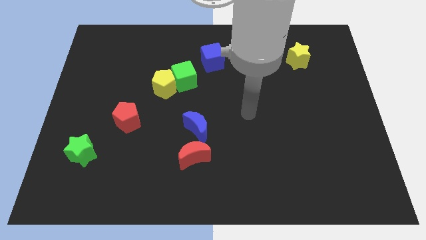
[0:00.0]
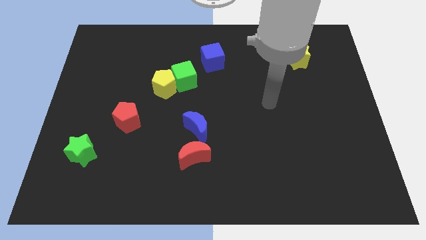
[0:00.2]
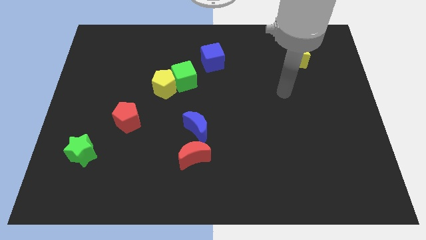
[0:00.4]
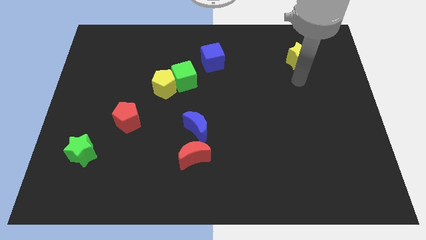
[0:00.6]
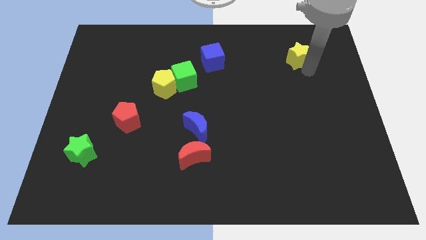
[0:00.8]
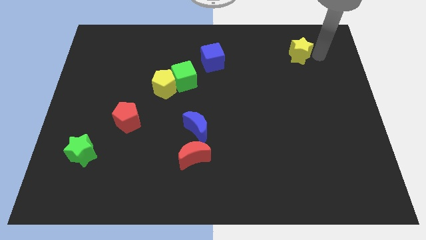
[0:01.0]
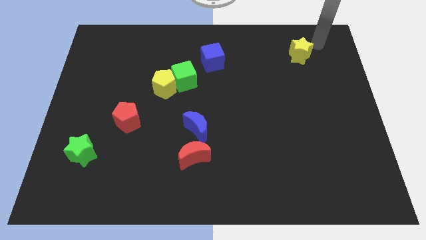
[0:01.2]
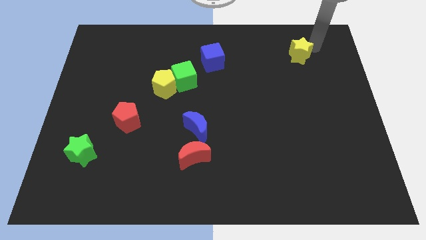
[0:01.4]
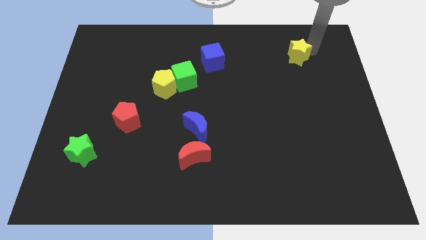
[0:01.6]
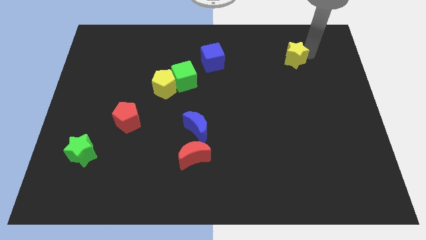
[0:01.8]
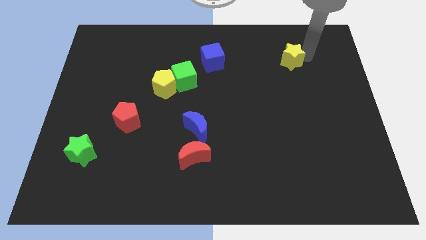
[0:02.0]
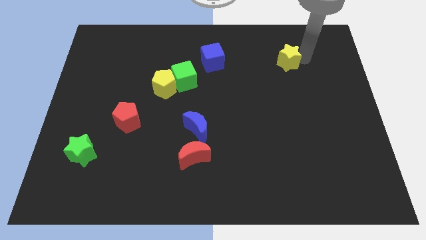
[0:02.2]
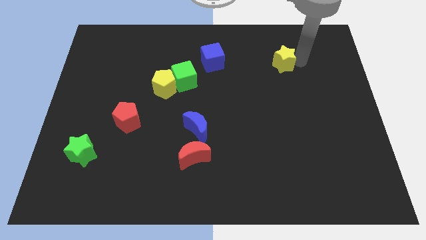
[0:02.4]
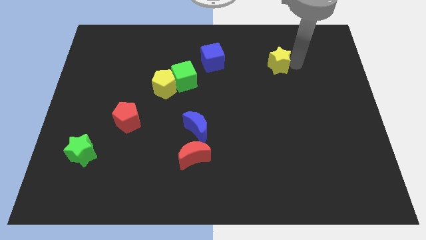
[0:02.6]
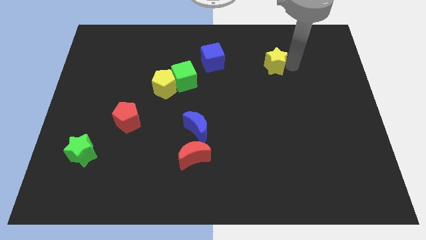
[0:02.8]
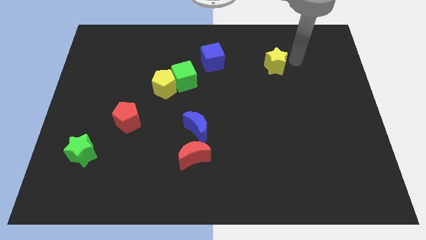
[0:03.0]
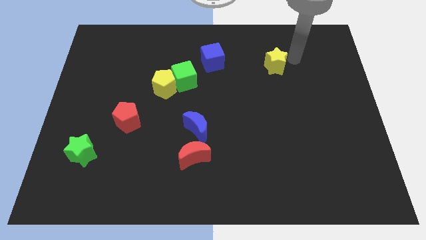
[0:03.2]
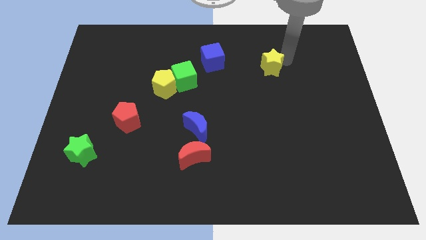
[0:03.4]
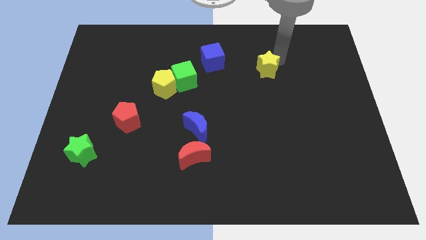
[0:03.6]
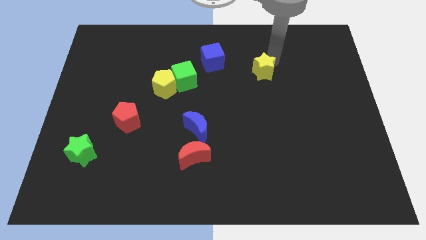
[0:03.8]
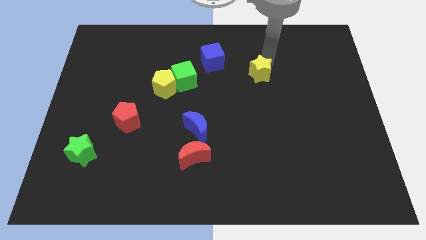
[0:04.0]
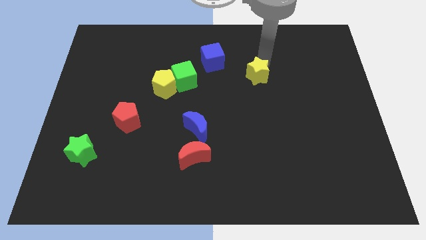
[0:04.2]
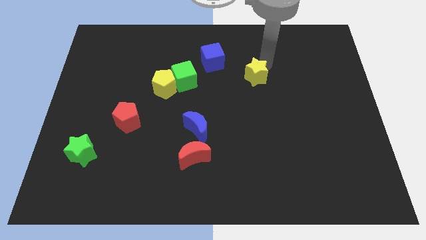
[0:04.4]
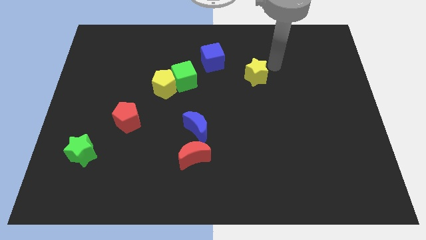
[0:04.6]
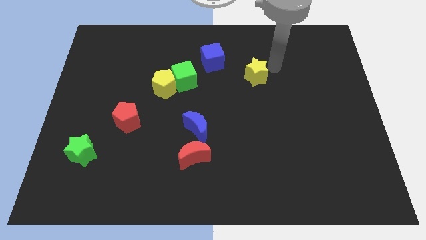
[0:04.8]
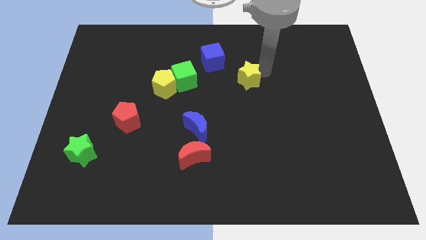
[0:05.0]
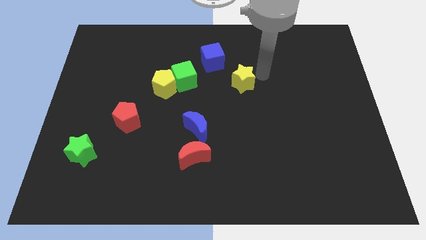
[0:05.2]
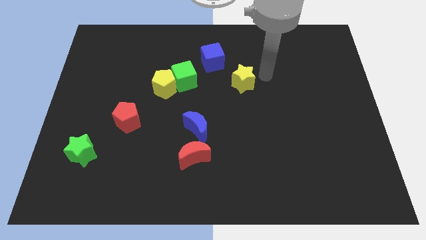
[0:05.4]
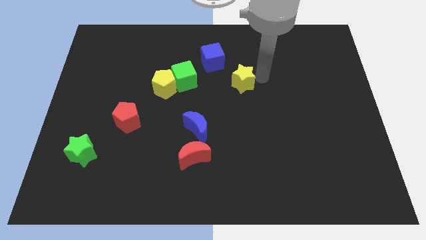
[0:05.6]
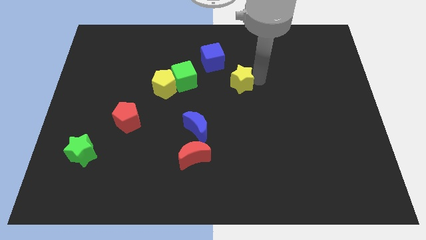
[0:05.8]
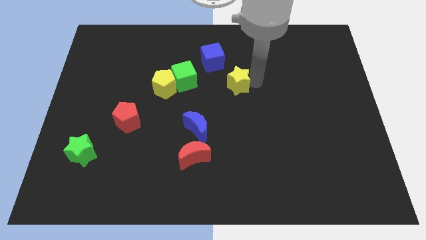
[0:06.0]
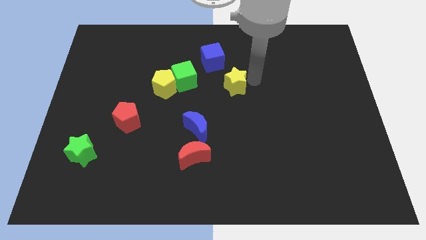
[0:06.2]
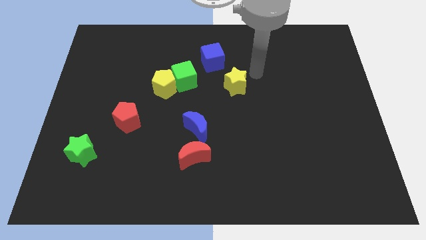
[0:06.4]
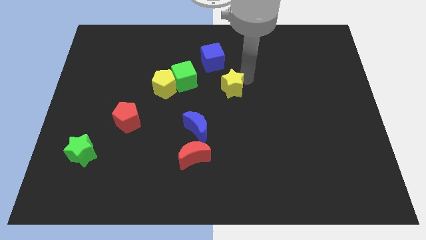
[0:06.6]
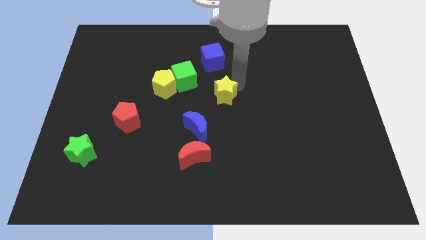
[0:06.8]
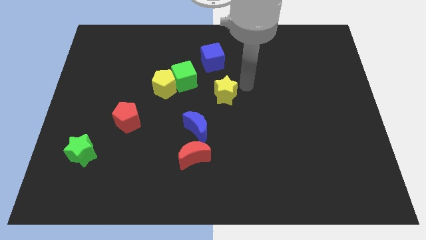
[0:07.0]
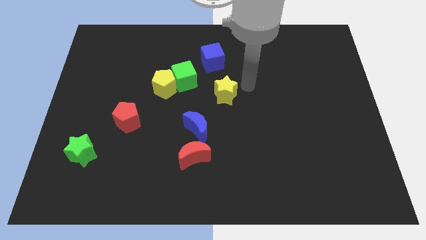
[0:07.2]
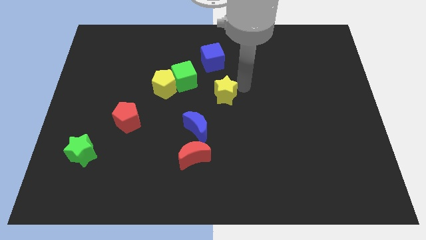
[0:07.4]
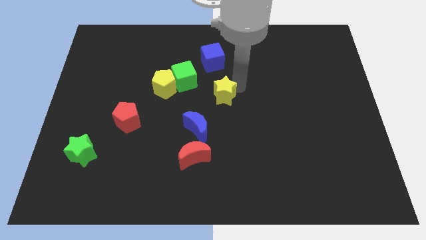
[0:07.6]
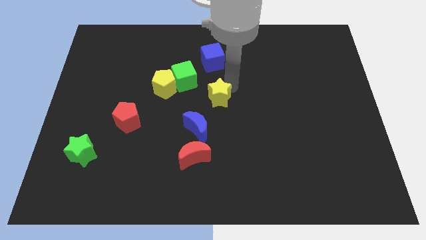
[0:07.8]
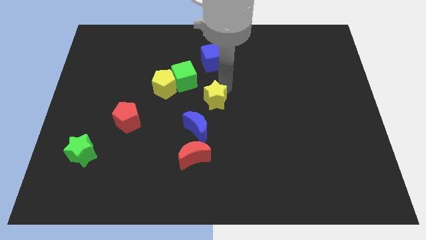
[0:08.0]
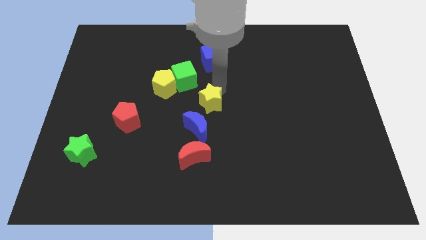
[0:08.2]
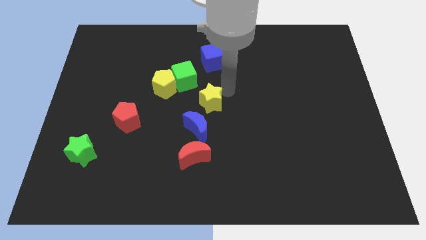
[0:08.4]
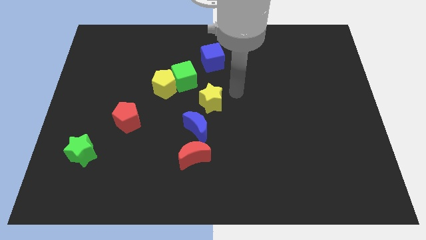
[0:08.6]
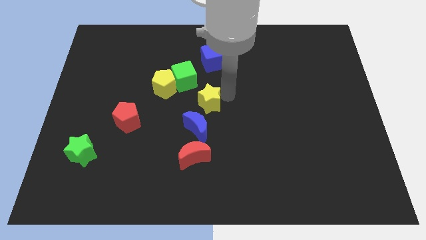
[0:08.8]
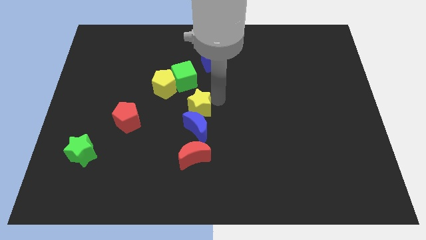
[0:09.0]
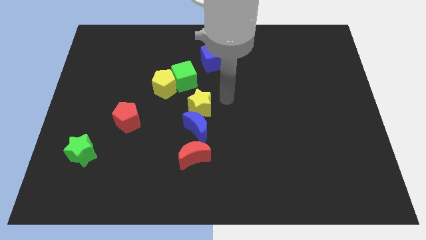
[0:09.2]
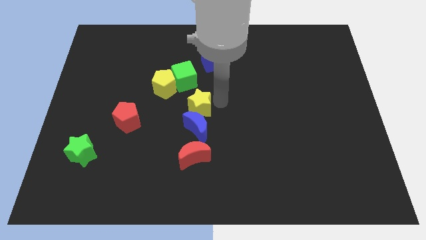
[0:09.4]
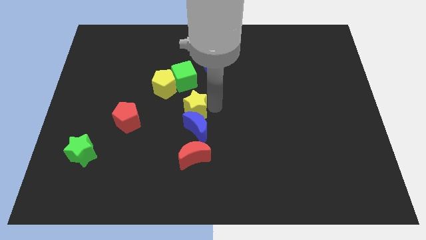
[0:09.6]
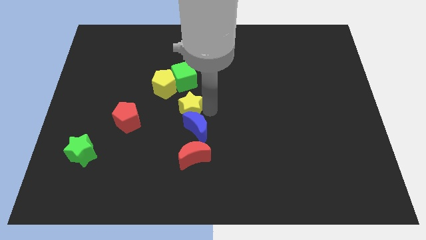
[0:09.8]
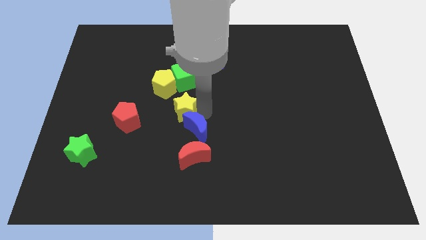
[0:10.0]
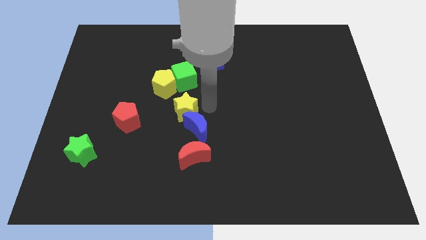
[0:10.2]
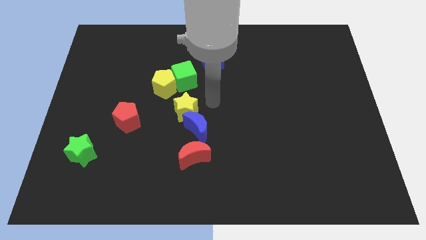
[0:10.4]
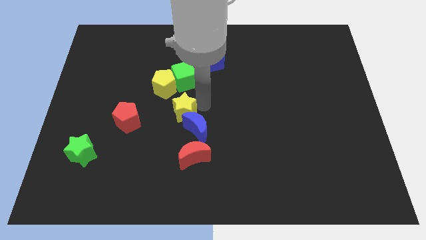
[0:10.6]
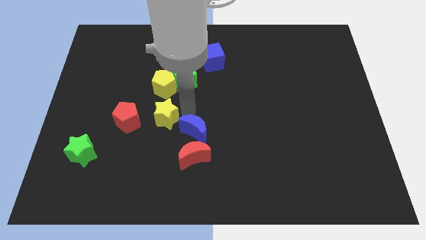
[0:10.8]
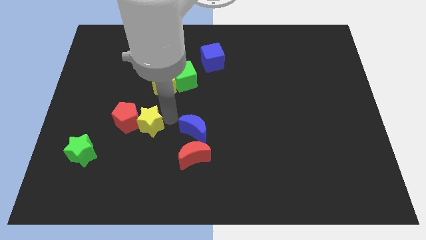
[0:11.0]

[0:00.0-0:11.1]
slide the yellow star to the red pentagon

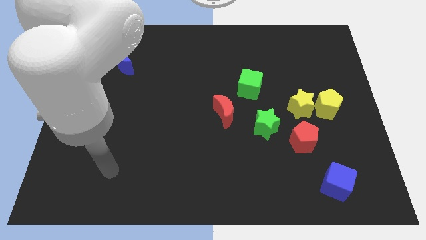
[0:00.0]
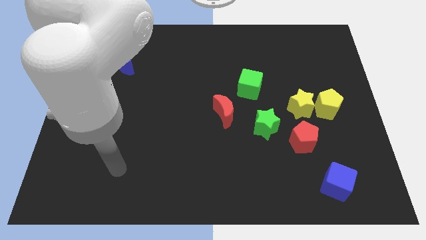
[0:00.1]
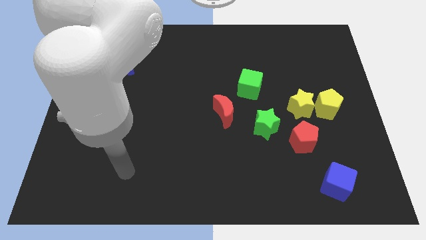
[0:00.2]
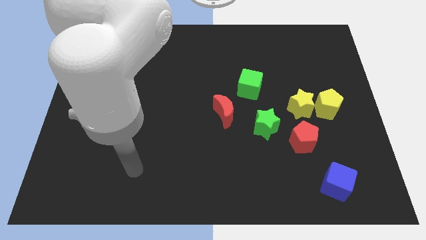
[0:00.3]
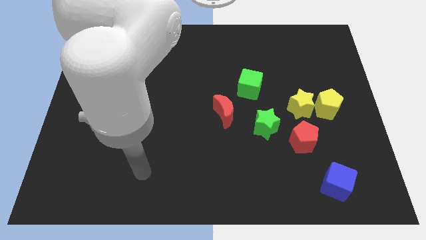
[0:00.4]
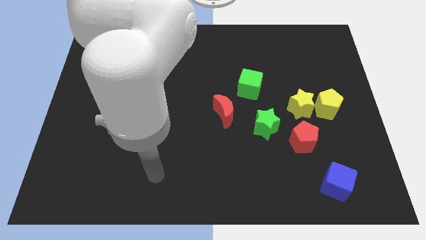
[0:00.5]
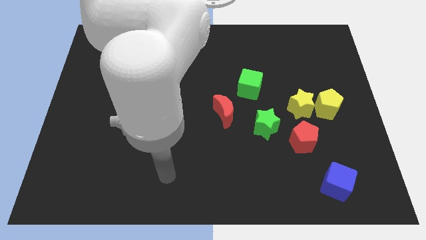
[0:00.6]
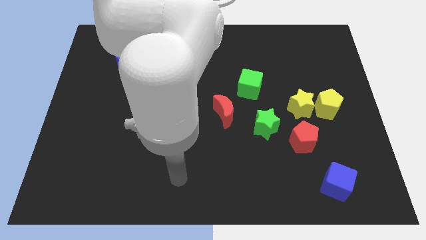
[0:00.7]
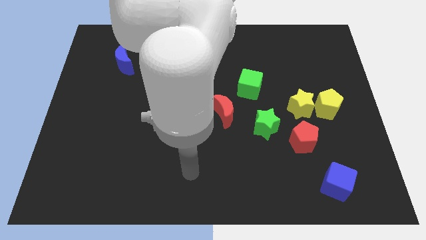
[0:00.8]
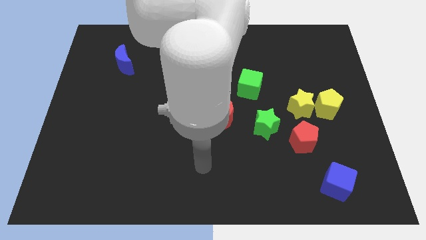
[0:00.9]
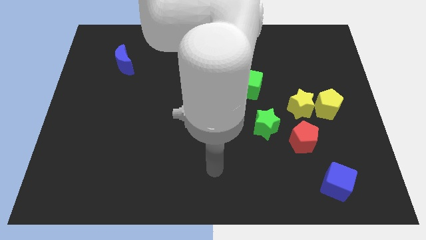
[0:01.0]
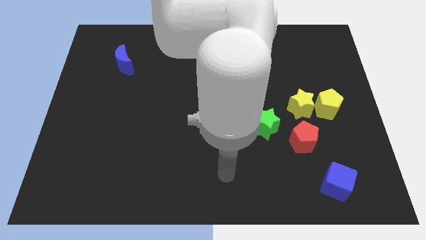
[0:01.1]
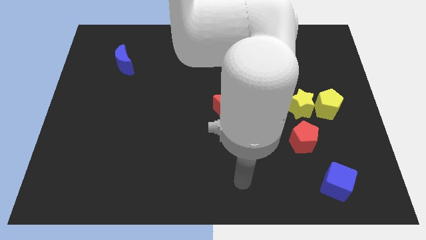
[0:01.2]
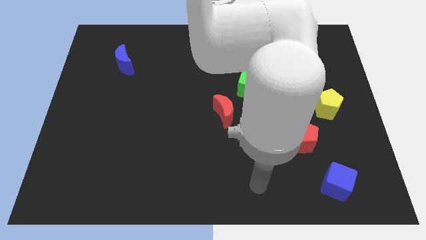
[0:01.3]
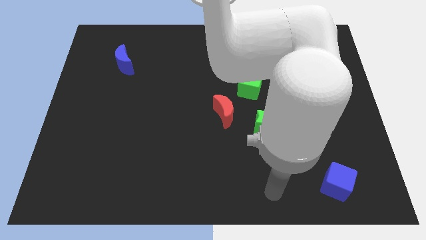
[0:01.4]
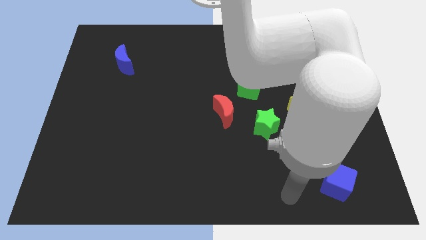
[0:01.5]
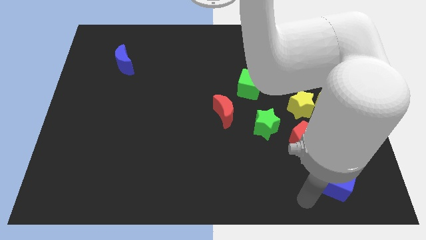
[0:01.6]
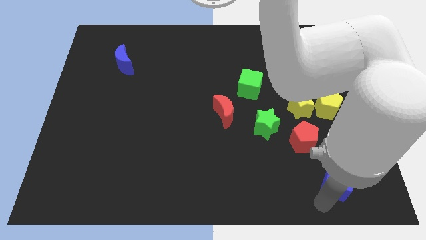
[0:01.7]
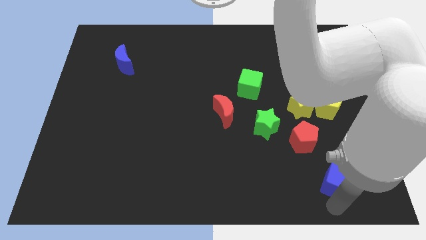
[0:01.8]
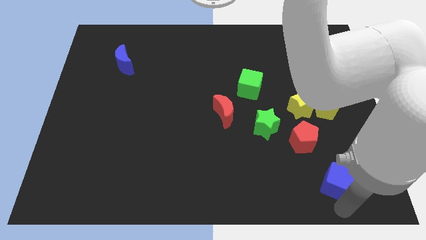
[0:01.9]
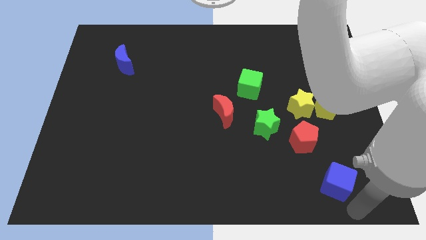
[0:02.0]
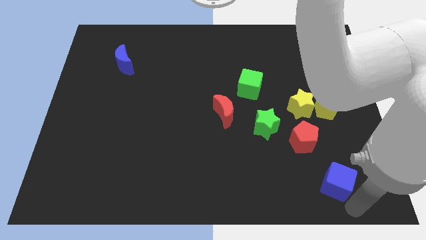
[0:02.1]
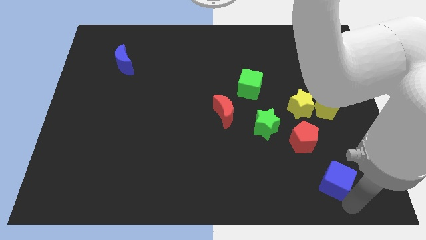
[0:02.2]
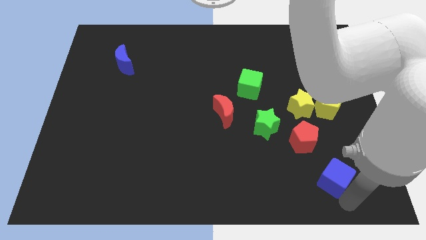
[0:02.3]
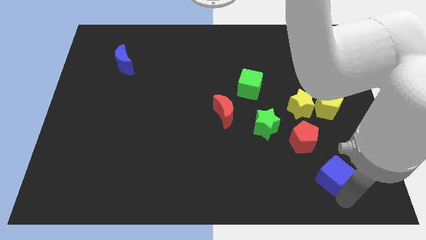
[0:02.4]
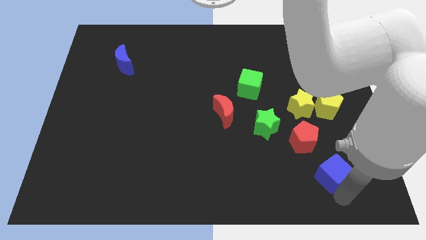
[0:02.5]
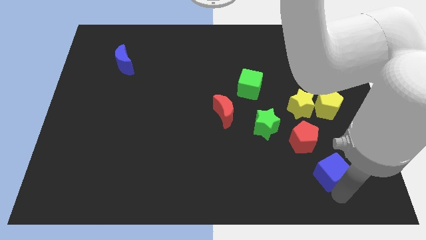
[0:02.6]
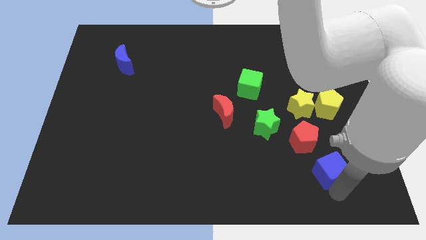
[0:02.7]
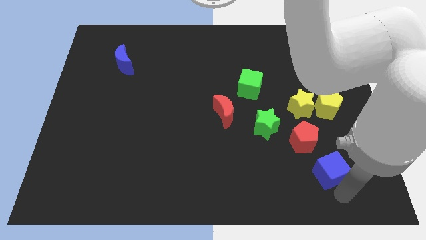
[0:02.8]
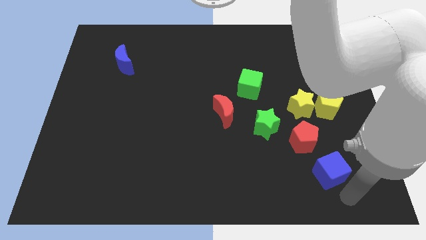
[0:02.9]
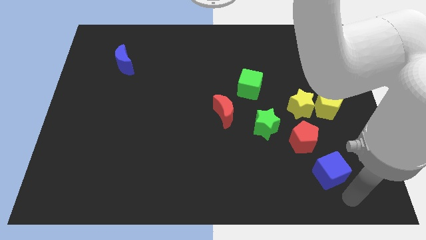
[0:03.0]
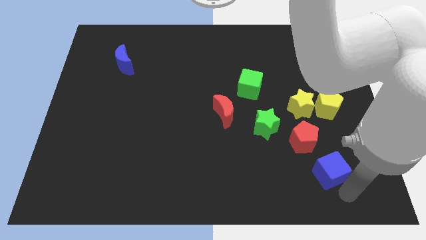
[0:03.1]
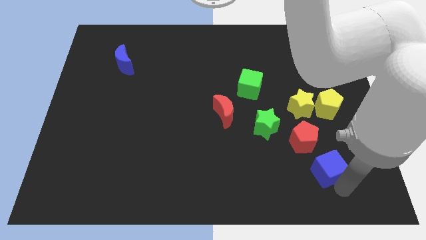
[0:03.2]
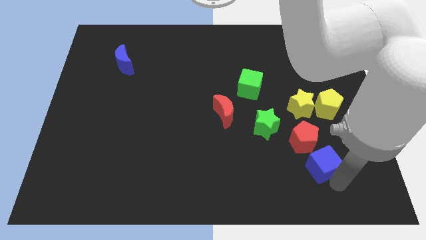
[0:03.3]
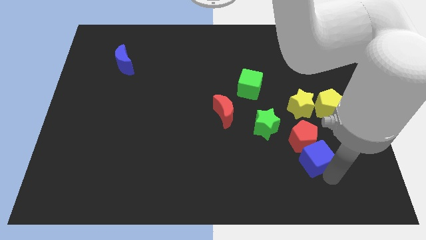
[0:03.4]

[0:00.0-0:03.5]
slide the blue cube next to the red pentagon
